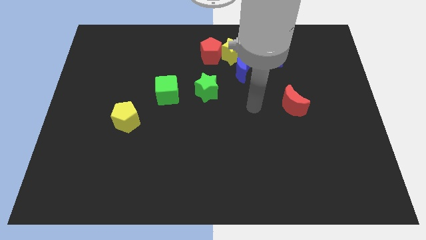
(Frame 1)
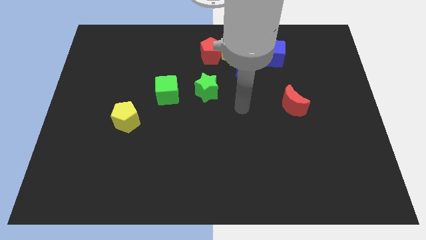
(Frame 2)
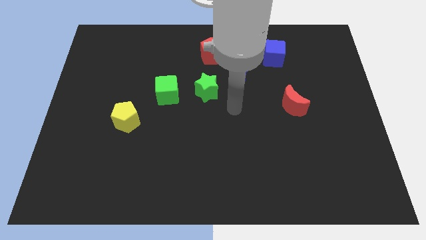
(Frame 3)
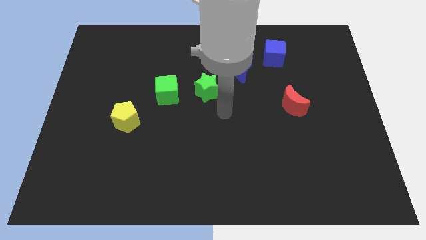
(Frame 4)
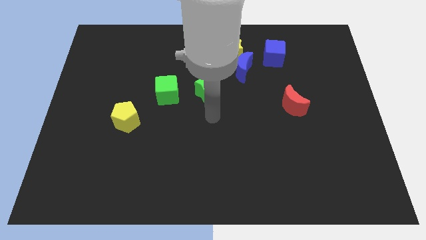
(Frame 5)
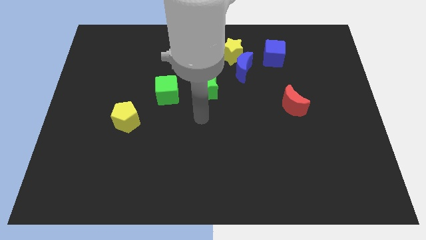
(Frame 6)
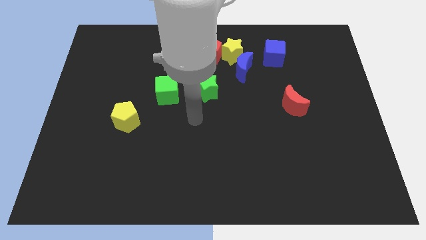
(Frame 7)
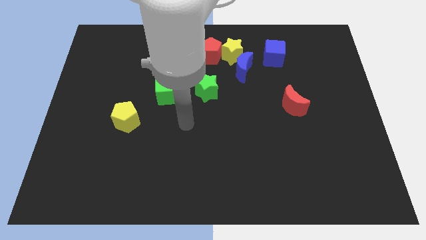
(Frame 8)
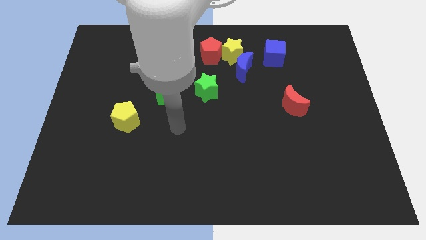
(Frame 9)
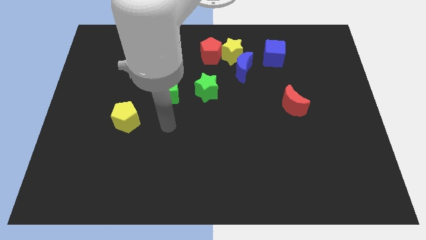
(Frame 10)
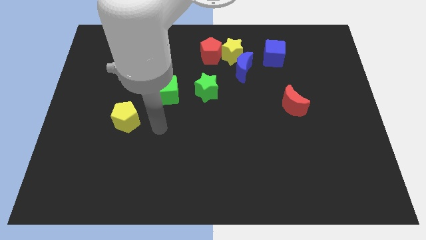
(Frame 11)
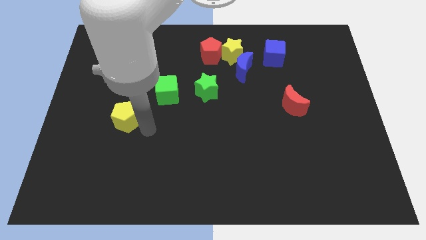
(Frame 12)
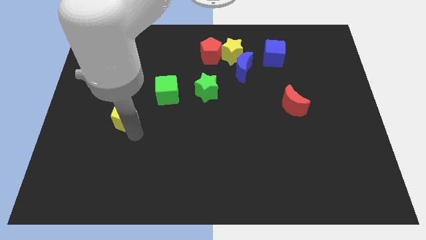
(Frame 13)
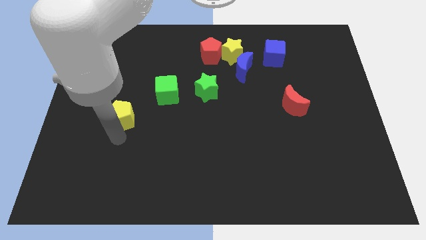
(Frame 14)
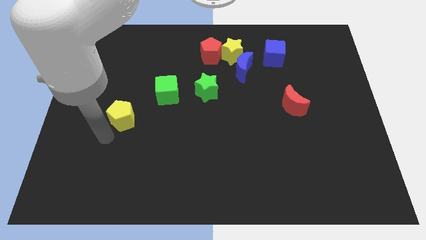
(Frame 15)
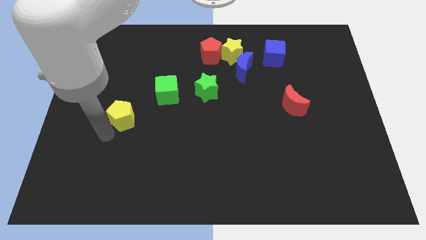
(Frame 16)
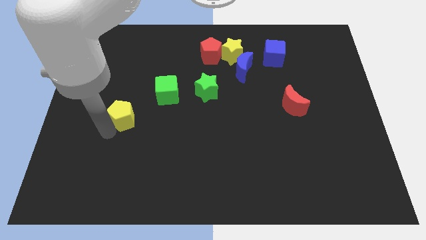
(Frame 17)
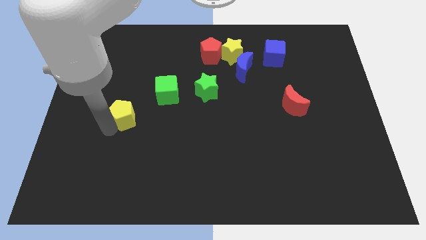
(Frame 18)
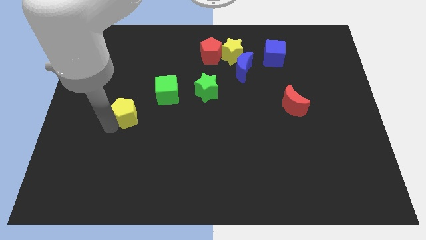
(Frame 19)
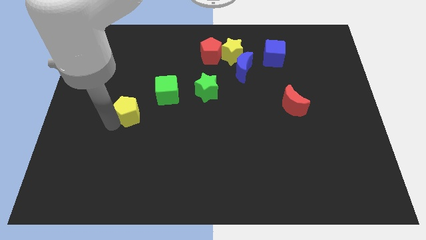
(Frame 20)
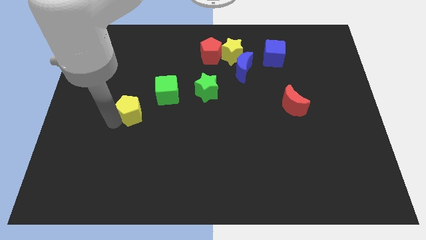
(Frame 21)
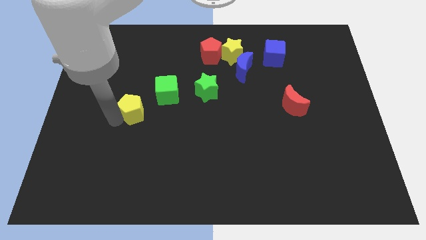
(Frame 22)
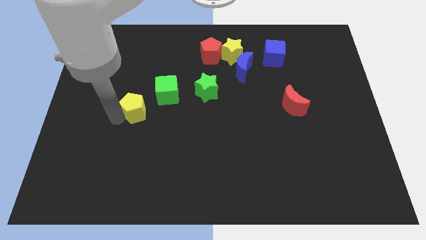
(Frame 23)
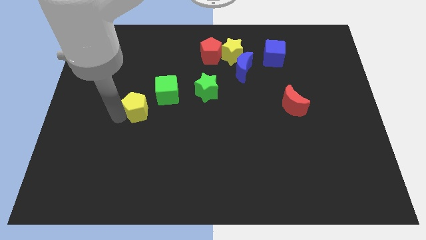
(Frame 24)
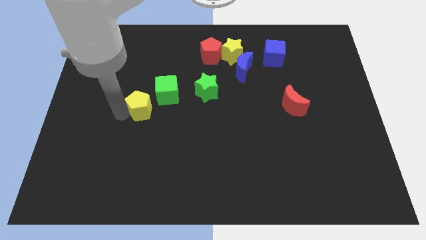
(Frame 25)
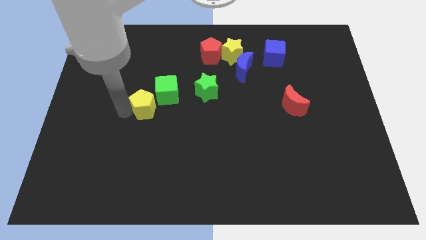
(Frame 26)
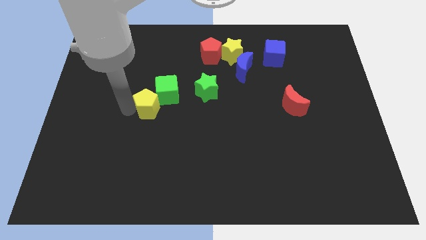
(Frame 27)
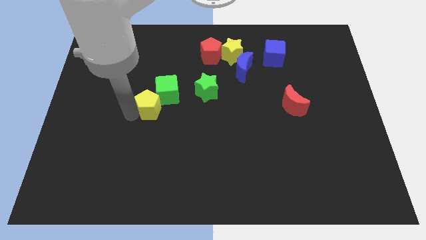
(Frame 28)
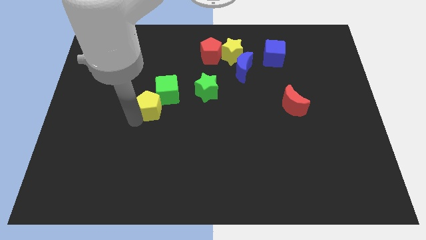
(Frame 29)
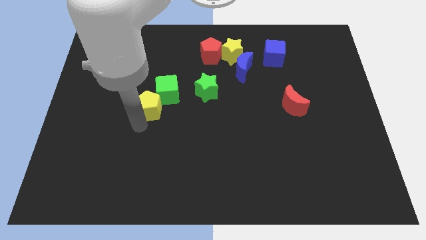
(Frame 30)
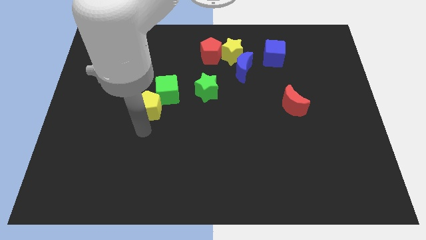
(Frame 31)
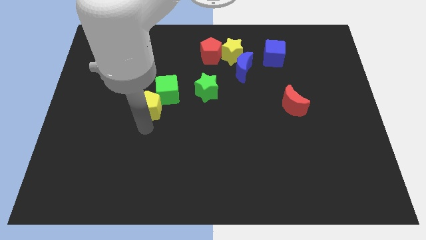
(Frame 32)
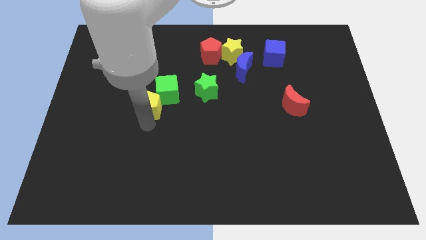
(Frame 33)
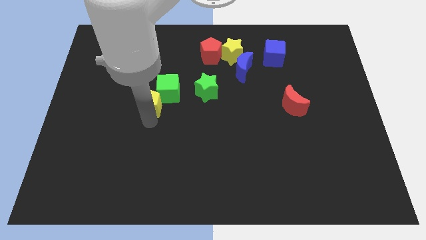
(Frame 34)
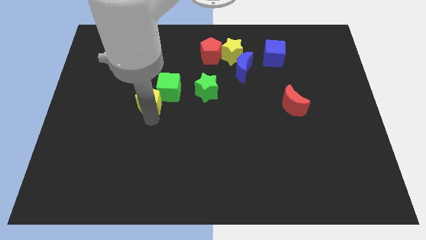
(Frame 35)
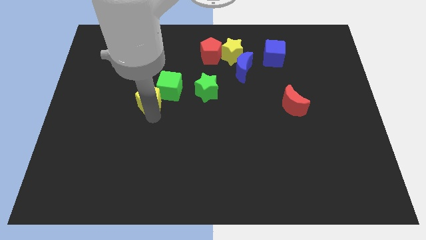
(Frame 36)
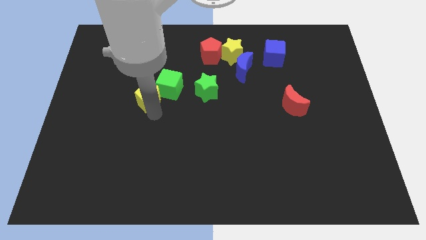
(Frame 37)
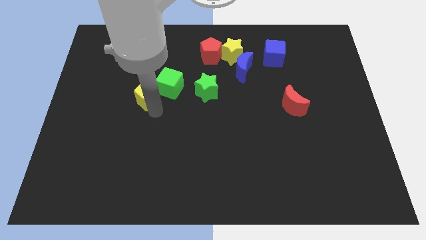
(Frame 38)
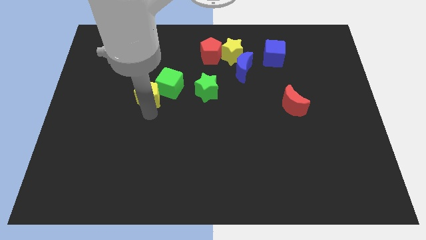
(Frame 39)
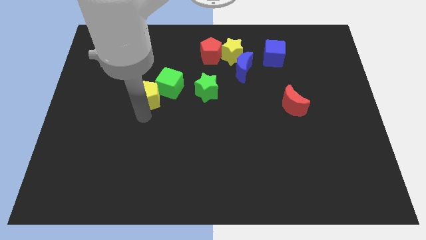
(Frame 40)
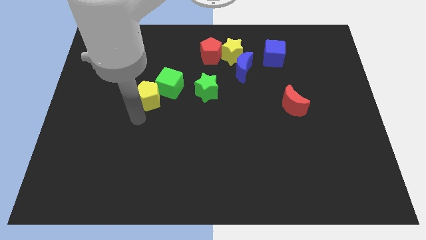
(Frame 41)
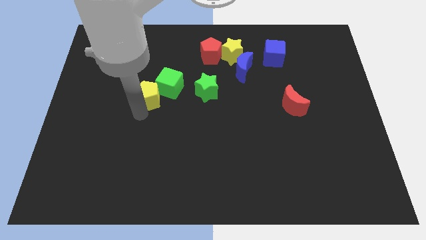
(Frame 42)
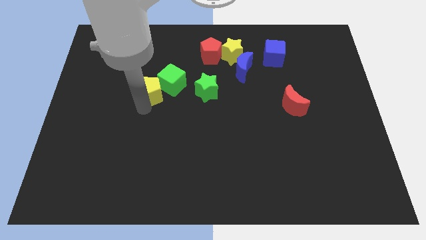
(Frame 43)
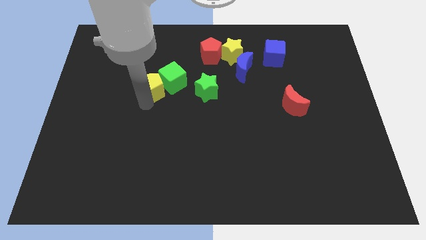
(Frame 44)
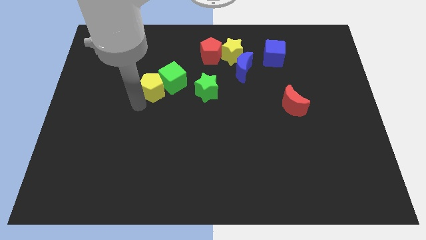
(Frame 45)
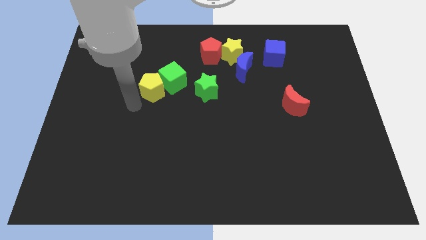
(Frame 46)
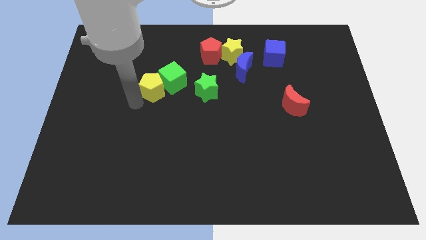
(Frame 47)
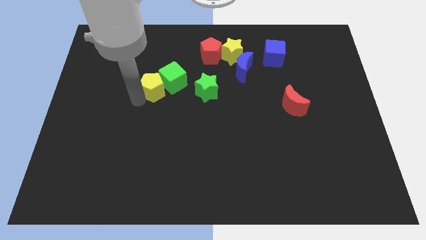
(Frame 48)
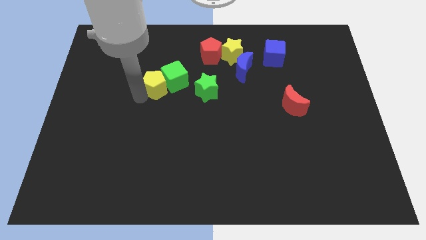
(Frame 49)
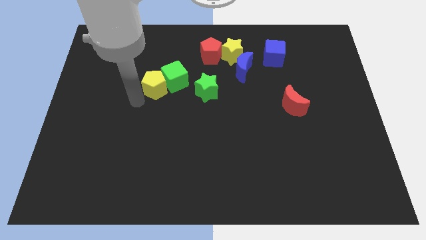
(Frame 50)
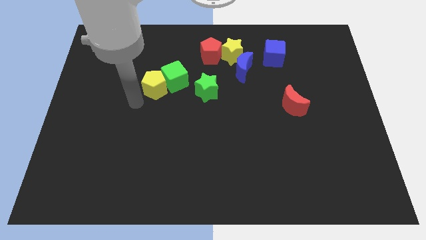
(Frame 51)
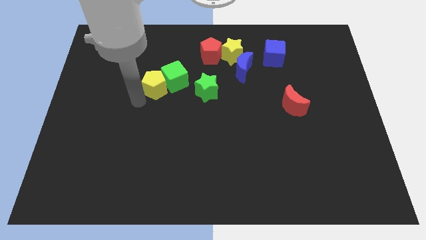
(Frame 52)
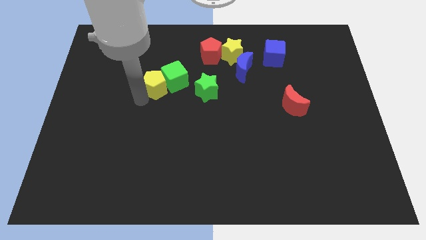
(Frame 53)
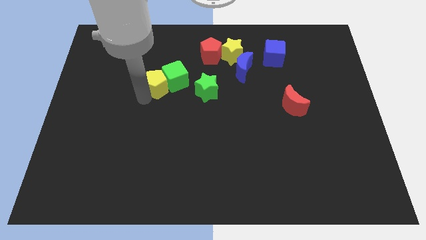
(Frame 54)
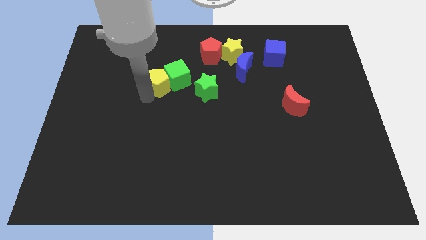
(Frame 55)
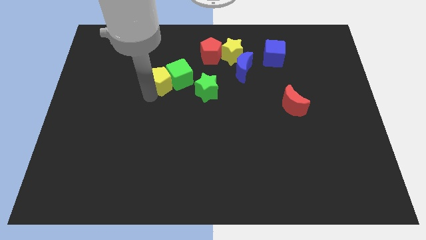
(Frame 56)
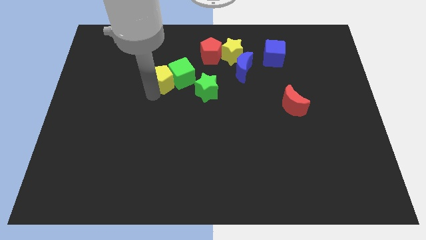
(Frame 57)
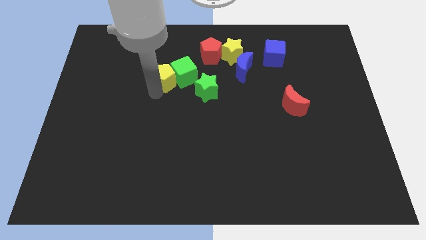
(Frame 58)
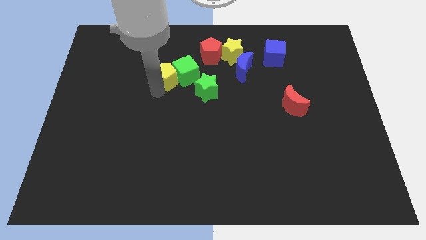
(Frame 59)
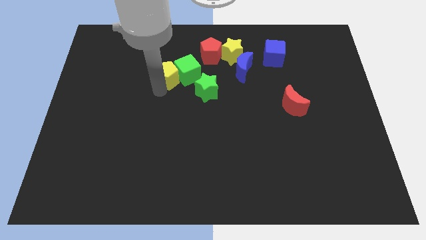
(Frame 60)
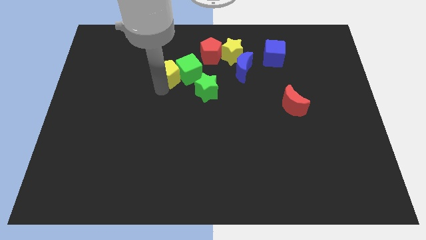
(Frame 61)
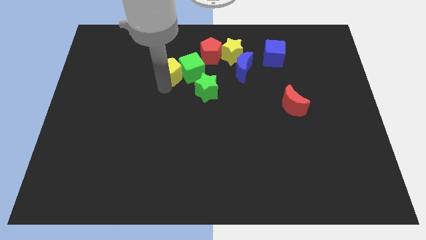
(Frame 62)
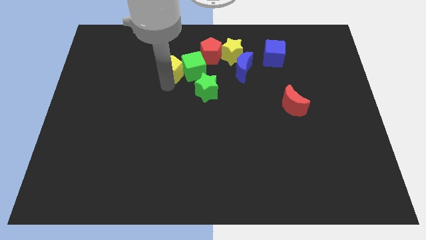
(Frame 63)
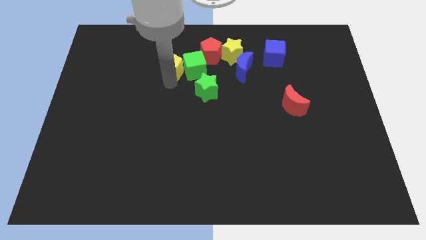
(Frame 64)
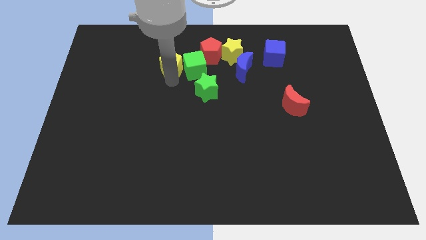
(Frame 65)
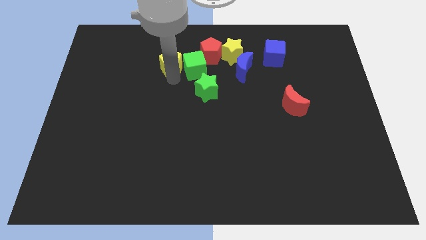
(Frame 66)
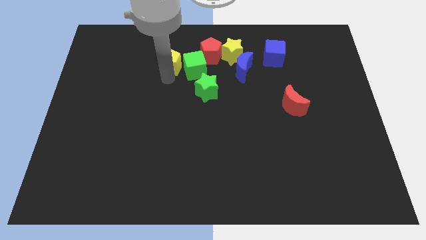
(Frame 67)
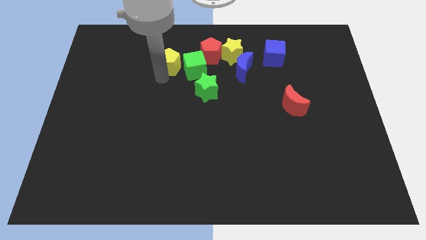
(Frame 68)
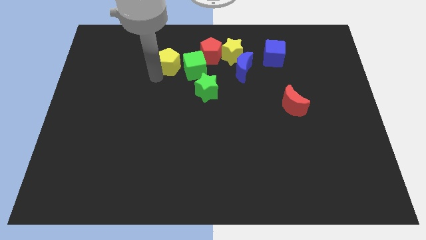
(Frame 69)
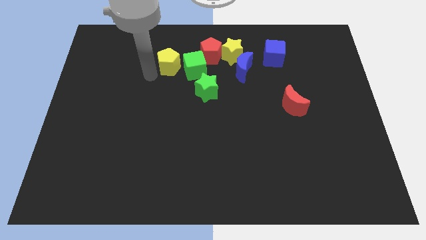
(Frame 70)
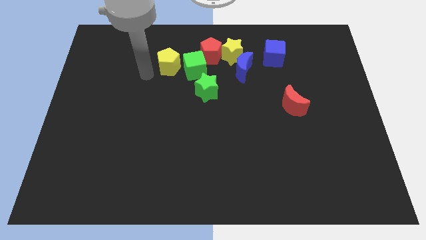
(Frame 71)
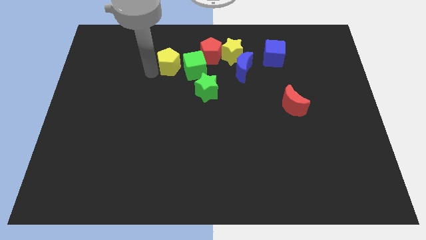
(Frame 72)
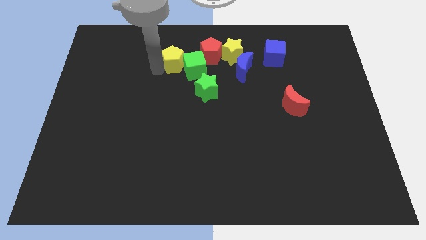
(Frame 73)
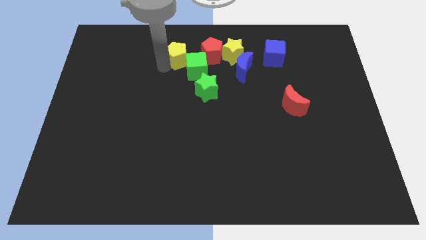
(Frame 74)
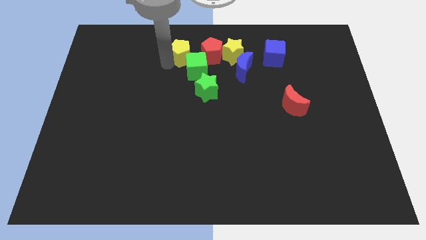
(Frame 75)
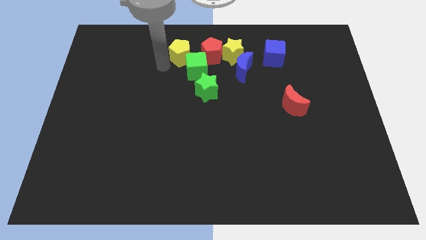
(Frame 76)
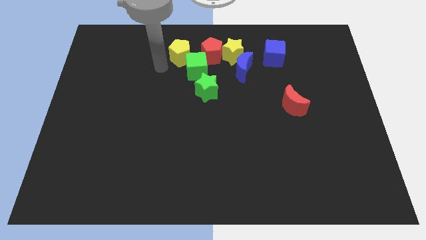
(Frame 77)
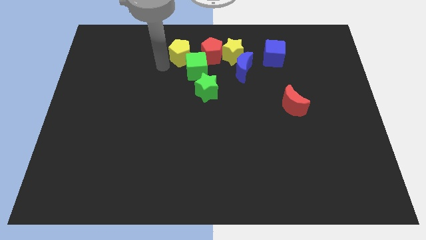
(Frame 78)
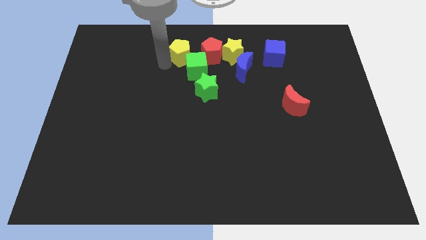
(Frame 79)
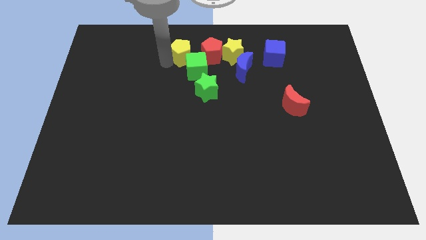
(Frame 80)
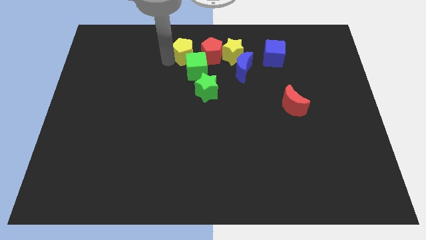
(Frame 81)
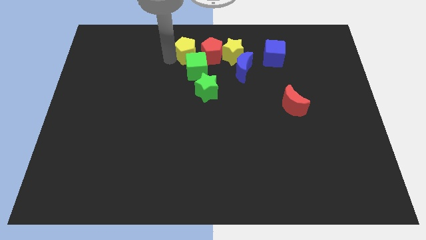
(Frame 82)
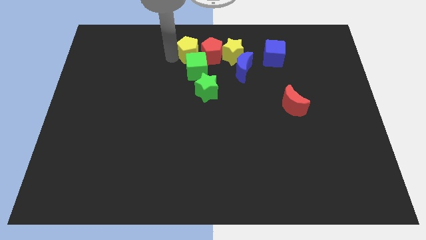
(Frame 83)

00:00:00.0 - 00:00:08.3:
slide the yellow pentagon to the towards your base
